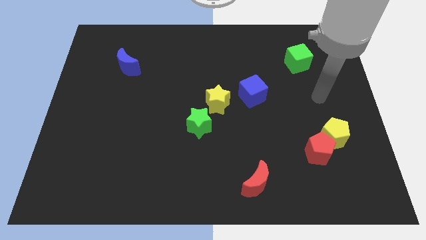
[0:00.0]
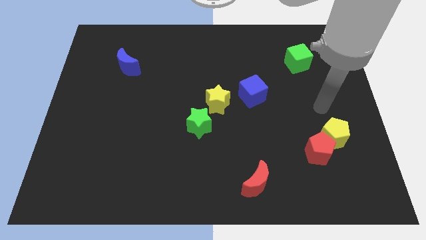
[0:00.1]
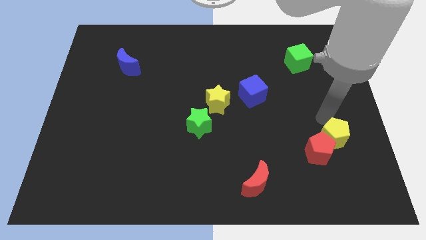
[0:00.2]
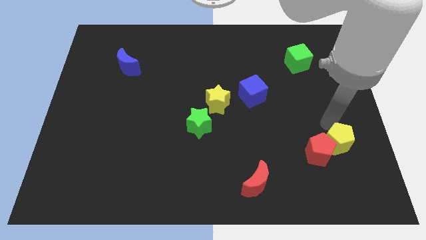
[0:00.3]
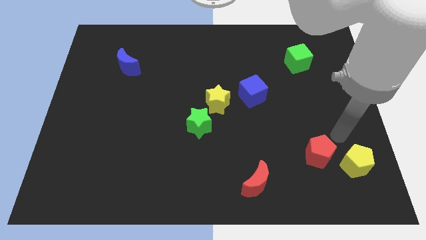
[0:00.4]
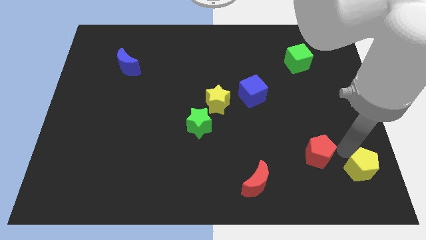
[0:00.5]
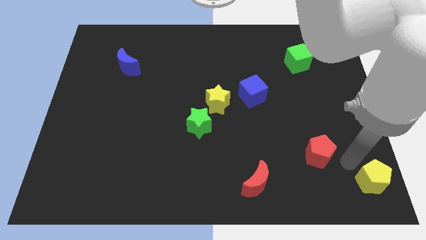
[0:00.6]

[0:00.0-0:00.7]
pull the red pentagon apart from the yellow pentagon

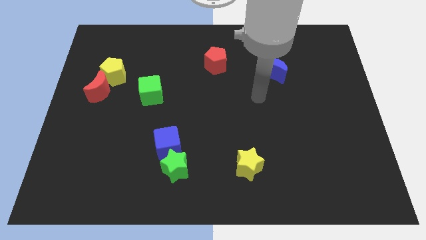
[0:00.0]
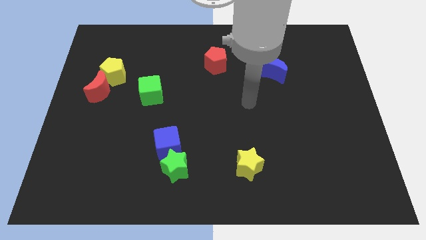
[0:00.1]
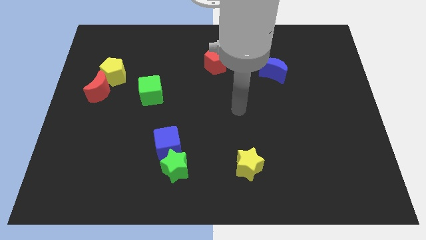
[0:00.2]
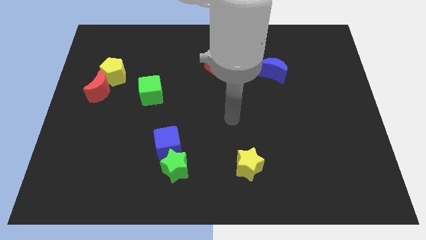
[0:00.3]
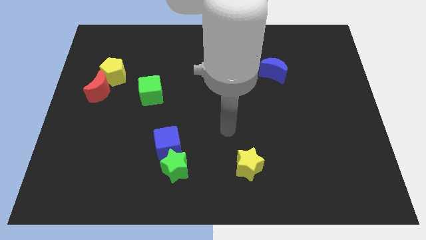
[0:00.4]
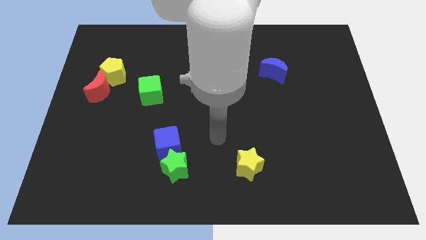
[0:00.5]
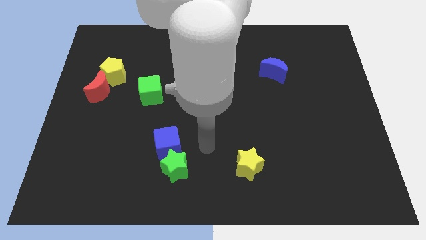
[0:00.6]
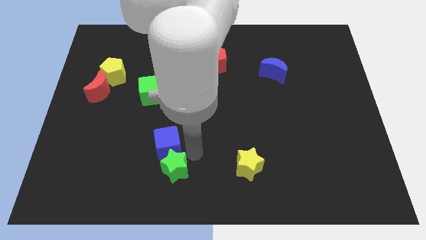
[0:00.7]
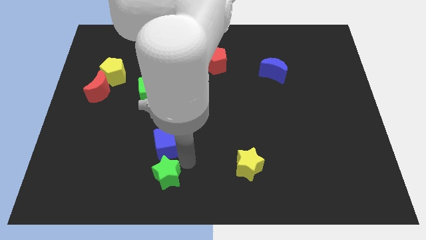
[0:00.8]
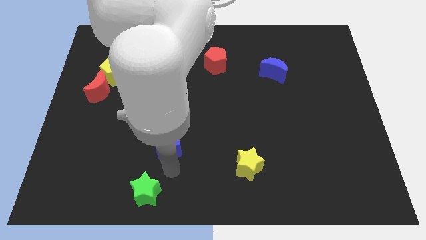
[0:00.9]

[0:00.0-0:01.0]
separate the blue cube from the green star

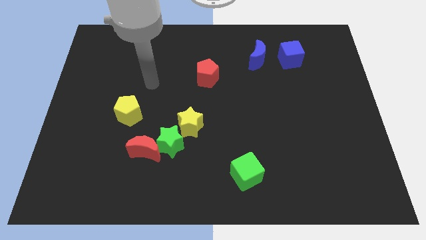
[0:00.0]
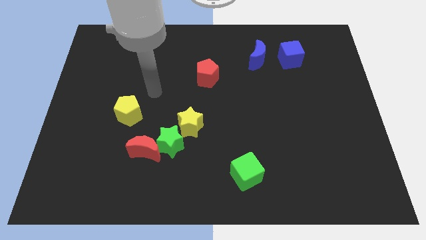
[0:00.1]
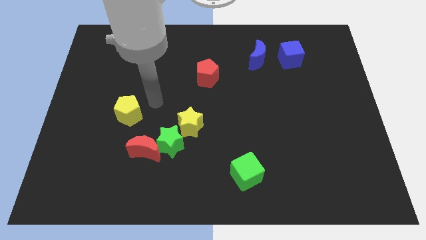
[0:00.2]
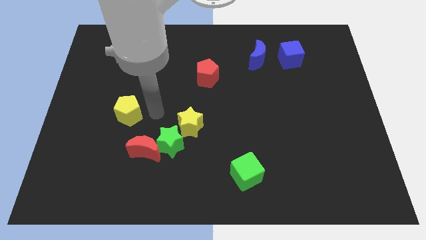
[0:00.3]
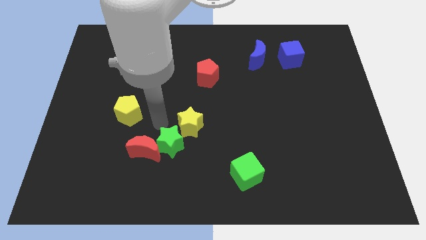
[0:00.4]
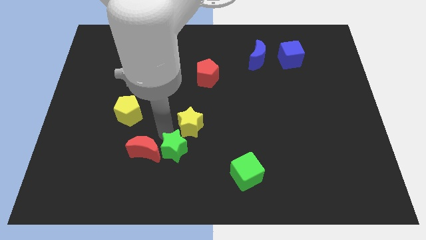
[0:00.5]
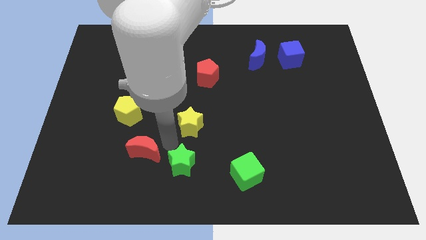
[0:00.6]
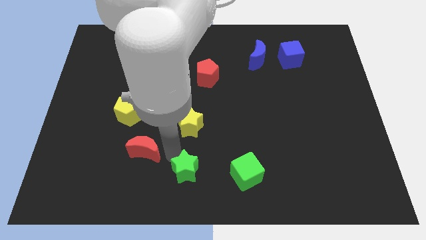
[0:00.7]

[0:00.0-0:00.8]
move the red moon away from the green star

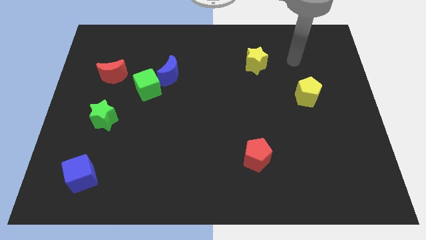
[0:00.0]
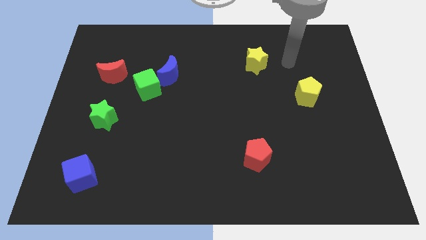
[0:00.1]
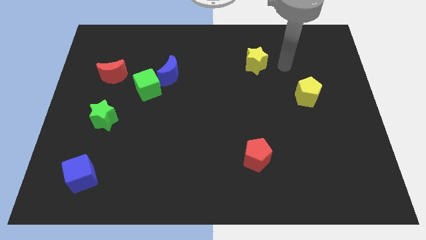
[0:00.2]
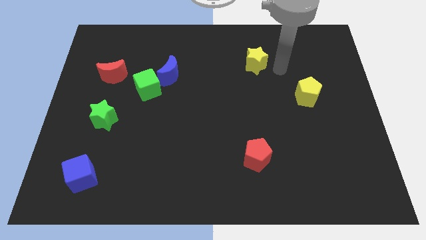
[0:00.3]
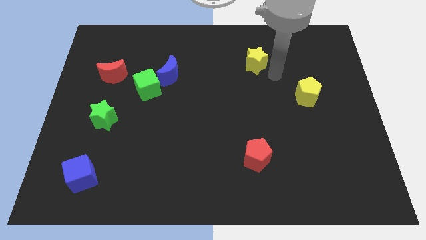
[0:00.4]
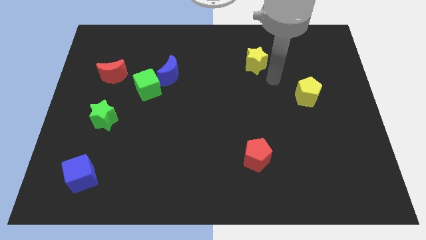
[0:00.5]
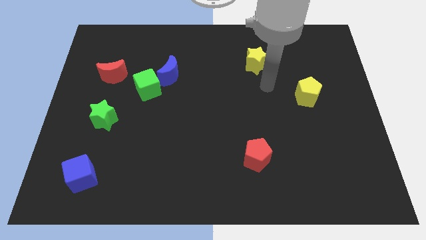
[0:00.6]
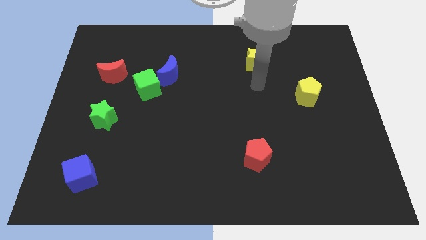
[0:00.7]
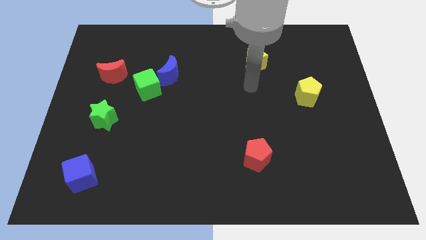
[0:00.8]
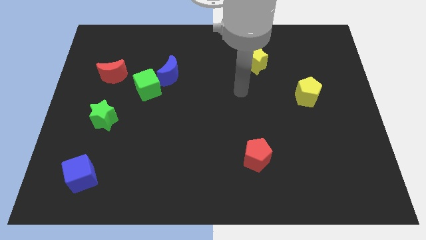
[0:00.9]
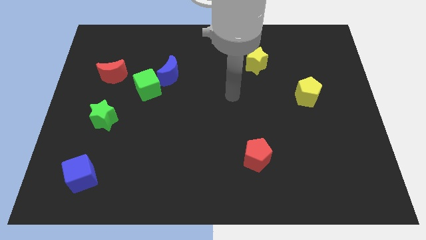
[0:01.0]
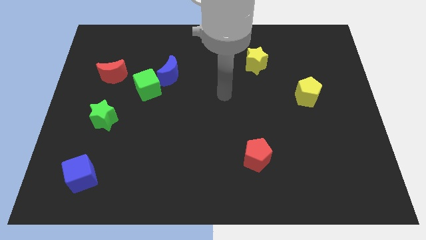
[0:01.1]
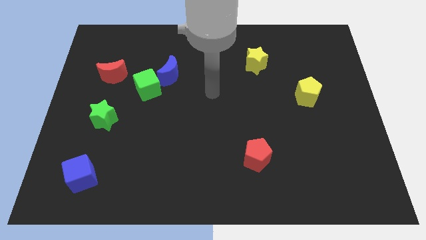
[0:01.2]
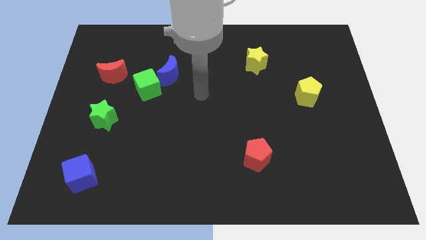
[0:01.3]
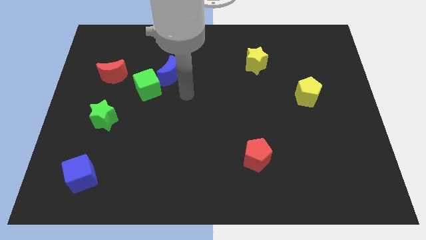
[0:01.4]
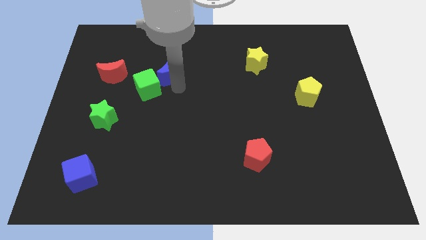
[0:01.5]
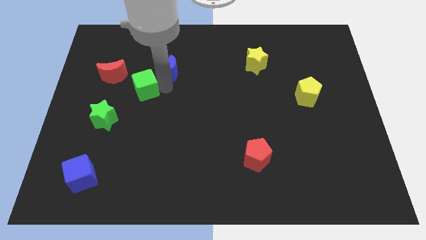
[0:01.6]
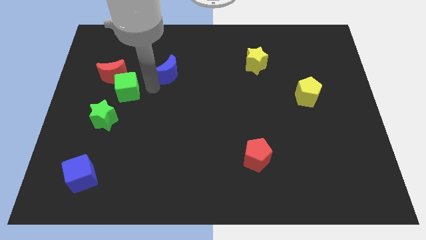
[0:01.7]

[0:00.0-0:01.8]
pull the blue moon apart from the green cube

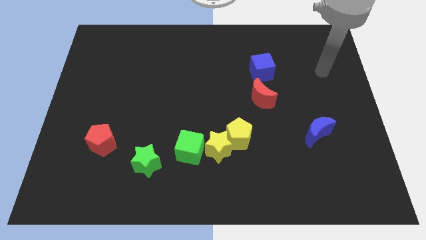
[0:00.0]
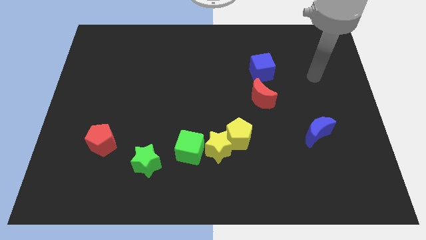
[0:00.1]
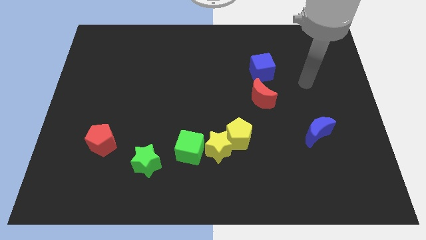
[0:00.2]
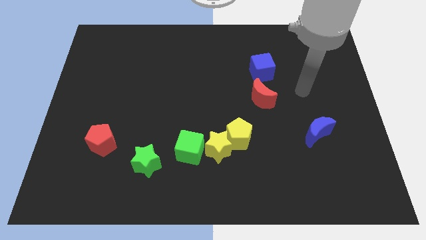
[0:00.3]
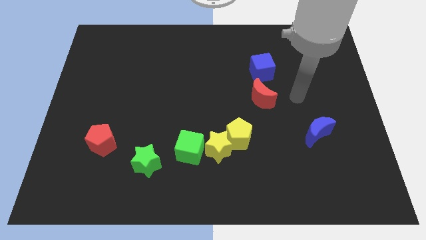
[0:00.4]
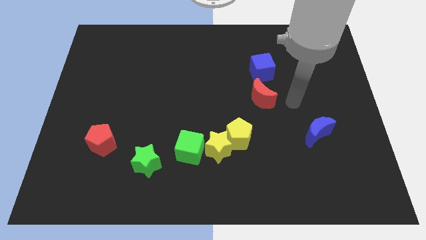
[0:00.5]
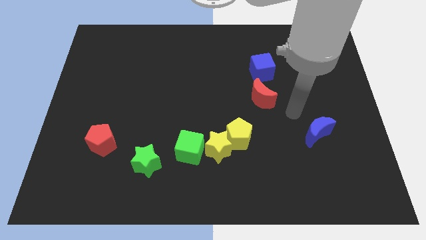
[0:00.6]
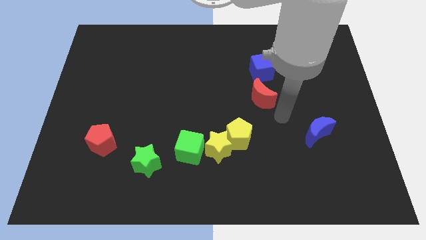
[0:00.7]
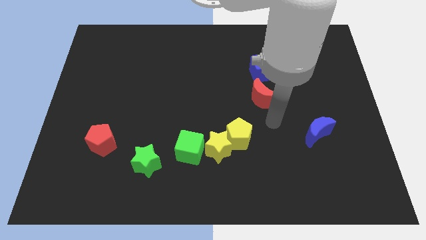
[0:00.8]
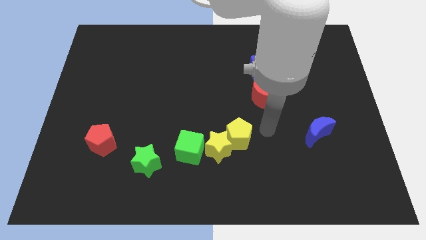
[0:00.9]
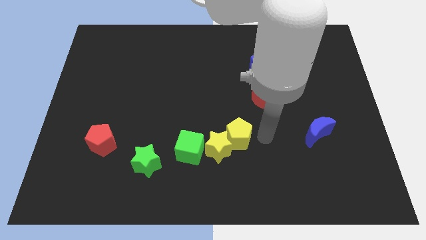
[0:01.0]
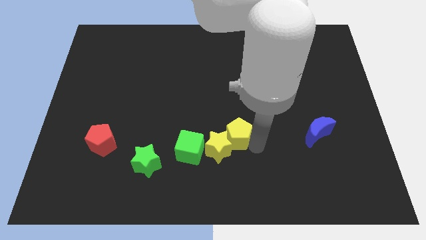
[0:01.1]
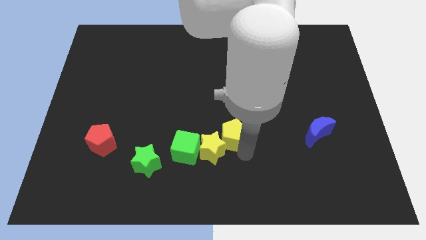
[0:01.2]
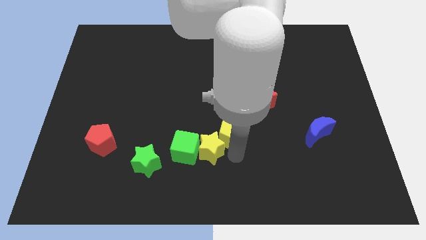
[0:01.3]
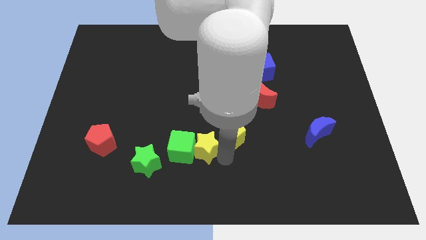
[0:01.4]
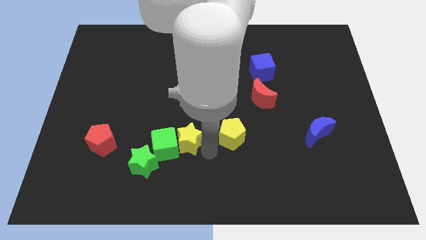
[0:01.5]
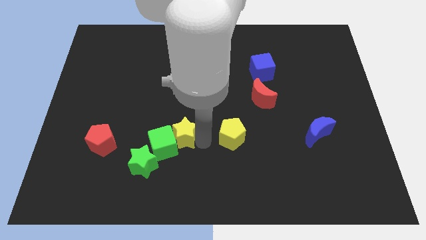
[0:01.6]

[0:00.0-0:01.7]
move the yellow pentagon away from the yellow star

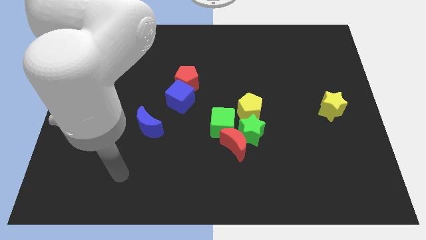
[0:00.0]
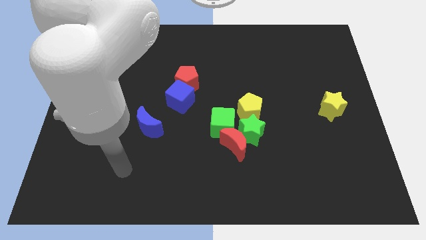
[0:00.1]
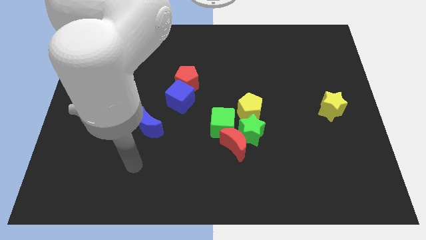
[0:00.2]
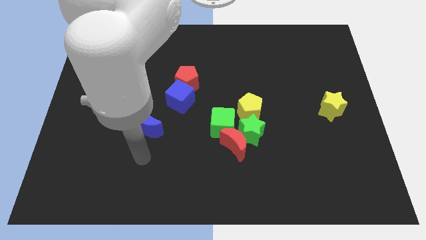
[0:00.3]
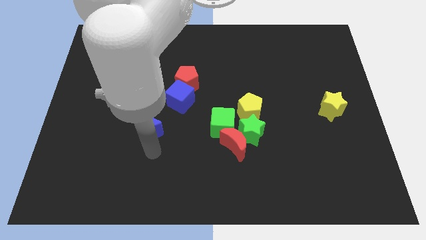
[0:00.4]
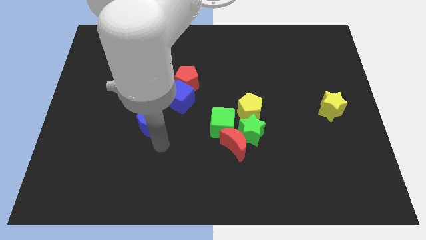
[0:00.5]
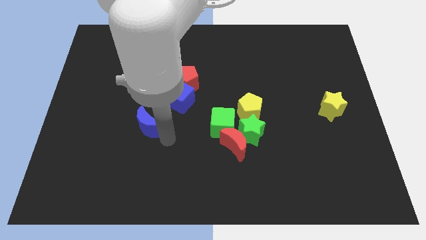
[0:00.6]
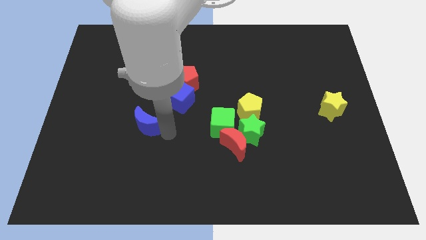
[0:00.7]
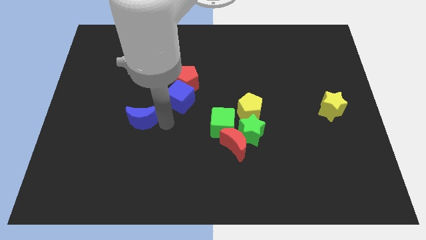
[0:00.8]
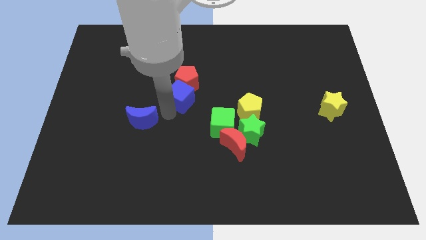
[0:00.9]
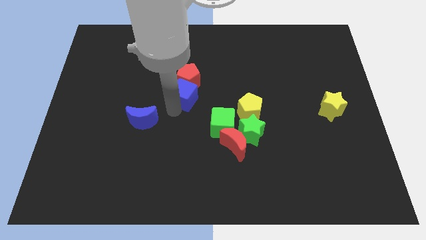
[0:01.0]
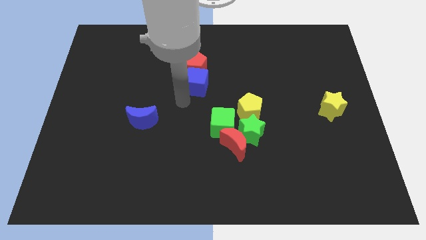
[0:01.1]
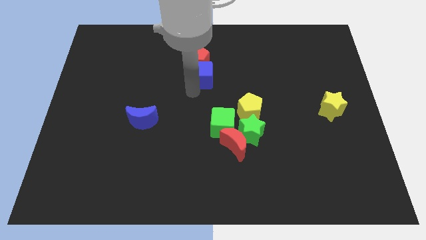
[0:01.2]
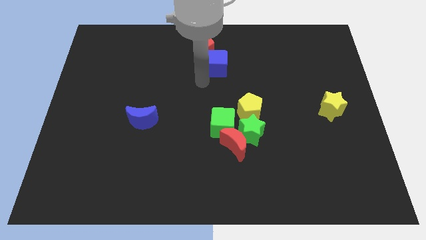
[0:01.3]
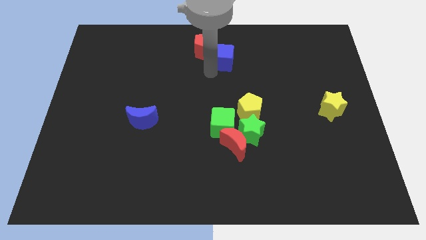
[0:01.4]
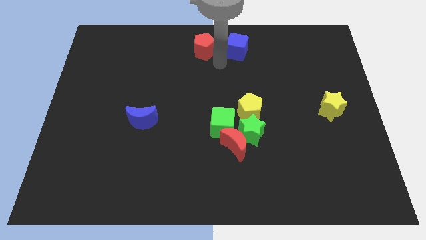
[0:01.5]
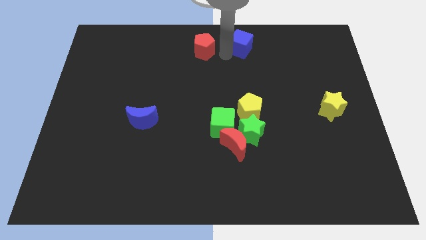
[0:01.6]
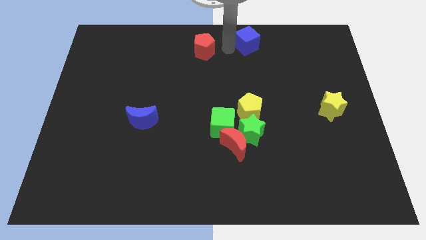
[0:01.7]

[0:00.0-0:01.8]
pull the red pentagon apart from the blue cube

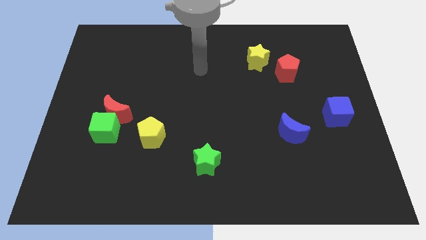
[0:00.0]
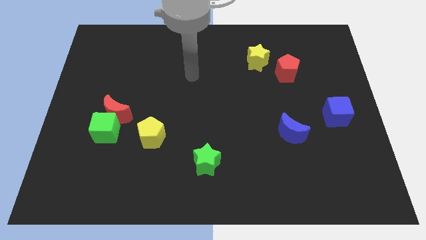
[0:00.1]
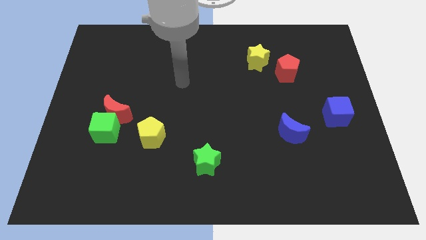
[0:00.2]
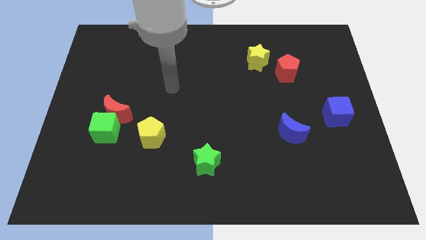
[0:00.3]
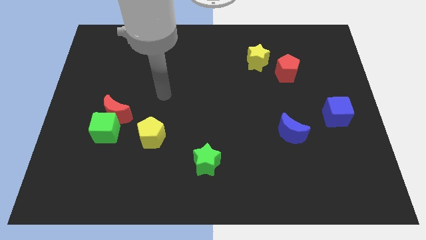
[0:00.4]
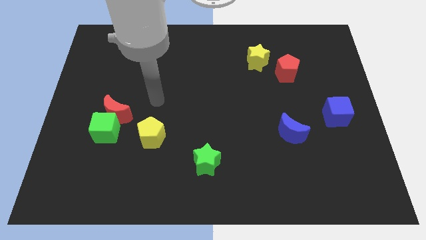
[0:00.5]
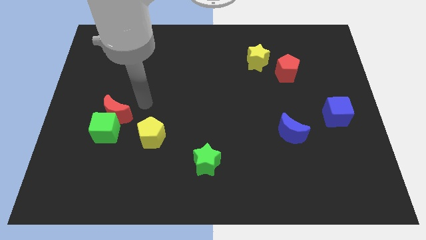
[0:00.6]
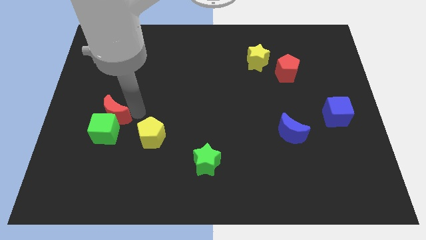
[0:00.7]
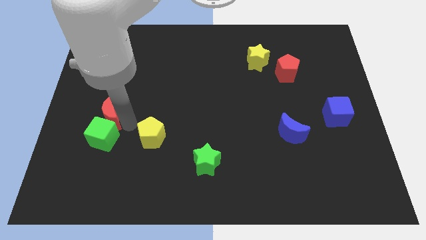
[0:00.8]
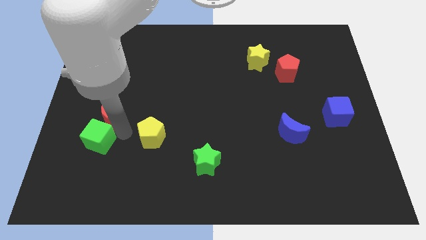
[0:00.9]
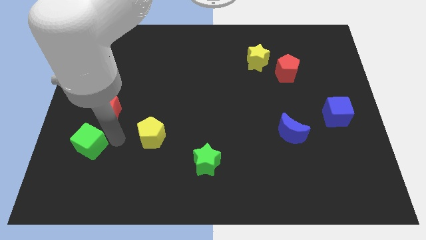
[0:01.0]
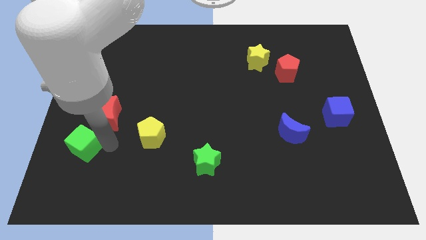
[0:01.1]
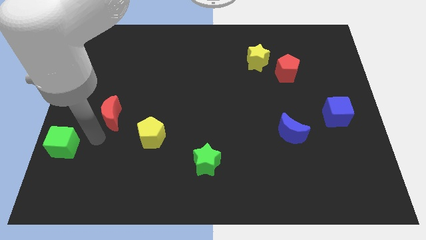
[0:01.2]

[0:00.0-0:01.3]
pull the red moon apart from the green cube

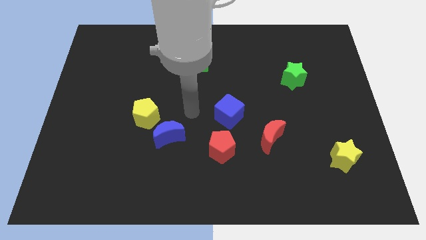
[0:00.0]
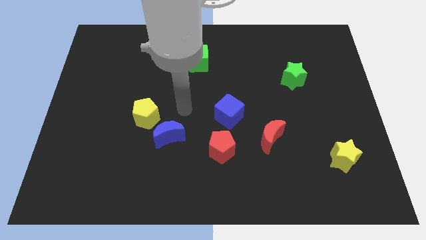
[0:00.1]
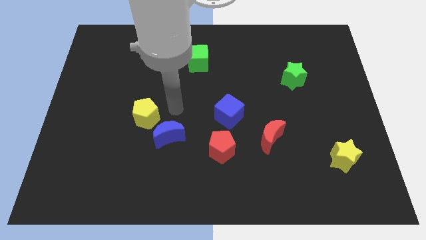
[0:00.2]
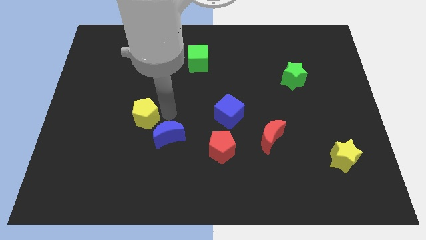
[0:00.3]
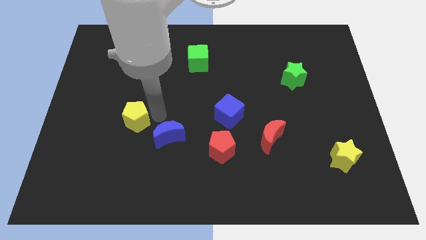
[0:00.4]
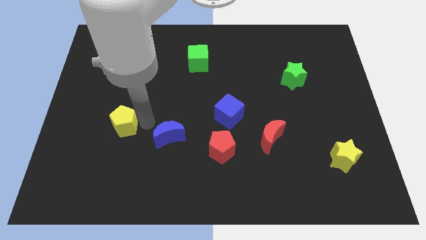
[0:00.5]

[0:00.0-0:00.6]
pull the blue moon apart from the yellow pentagon
